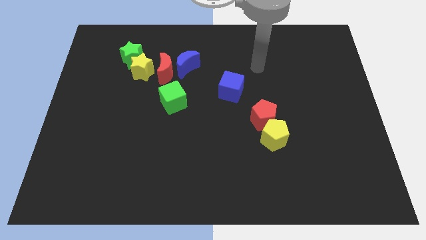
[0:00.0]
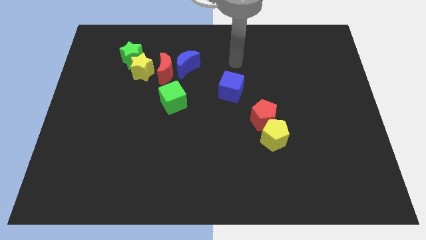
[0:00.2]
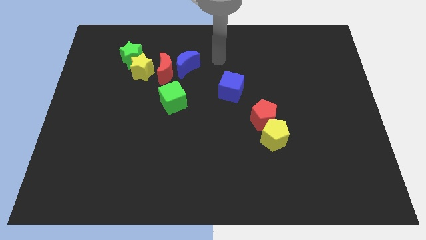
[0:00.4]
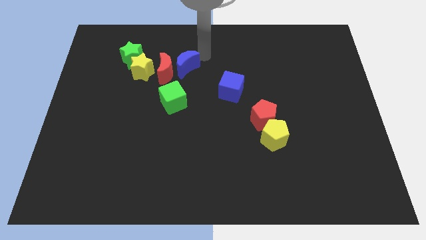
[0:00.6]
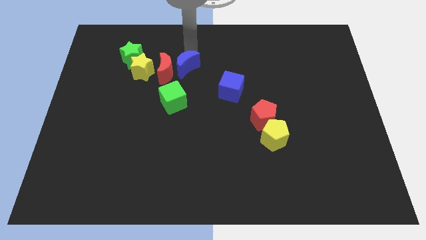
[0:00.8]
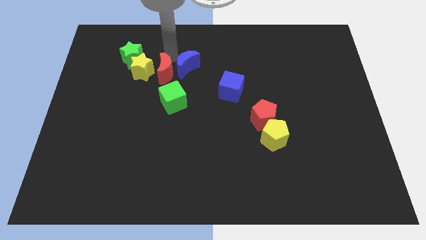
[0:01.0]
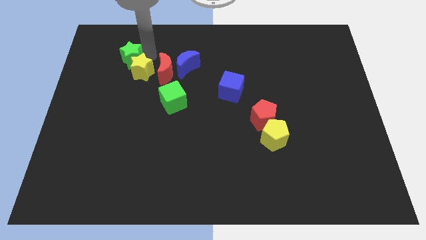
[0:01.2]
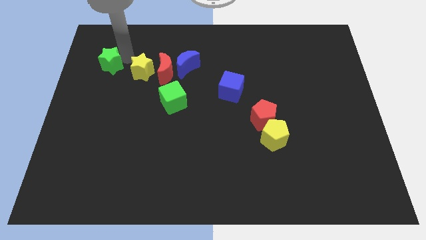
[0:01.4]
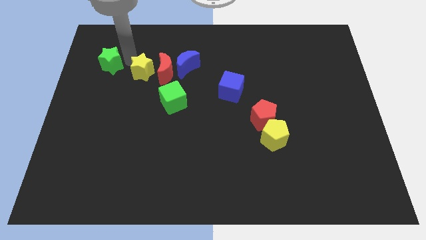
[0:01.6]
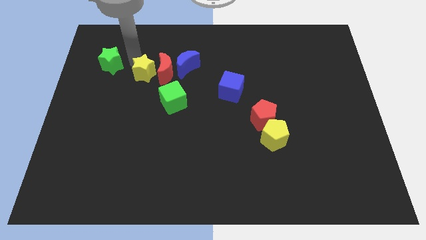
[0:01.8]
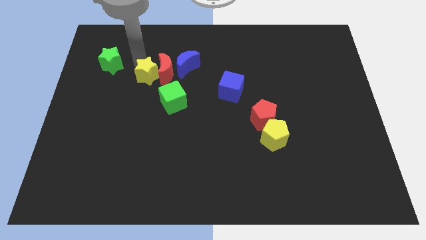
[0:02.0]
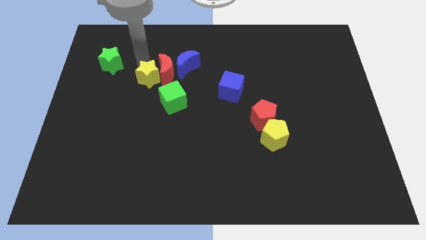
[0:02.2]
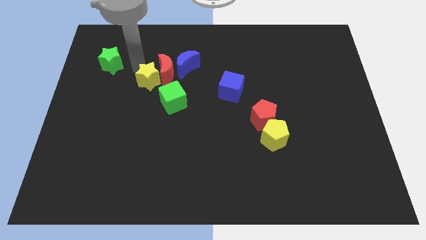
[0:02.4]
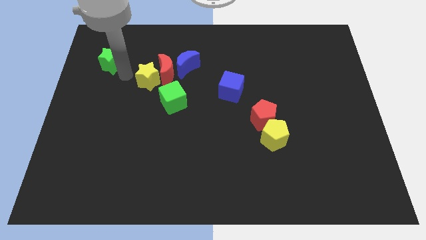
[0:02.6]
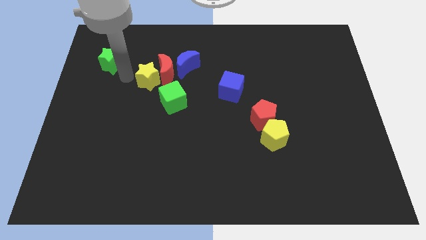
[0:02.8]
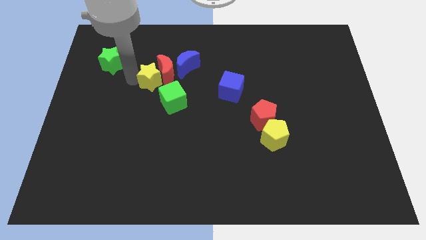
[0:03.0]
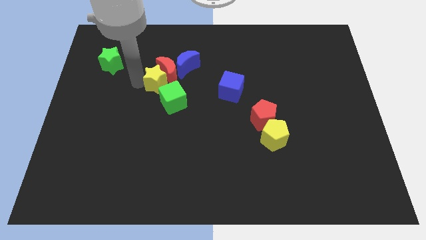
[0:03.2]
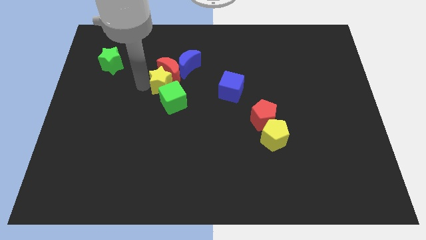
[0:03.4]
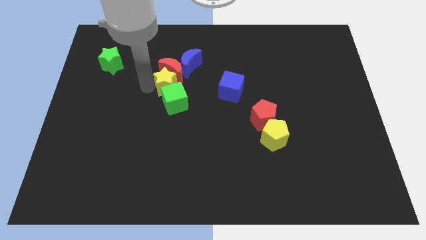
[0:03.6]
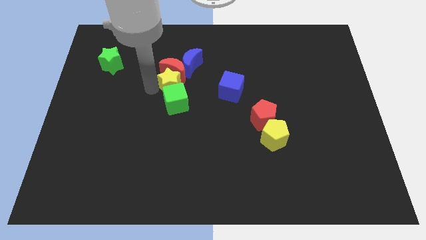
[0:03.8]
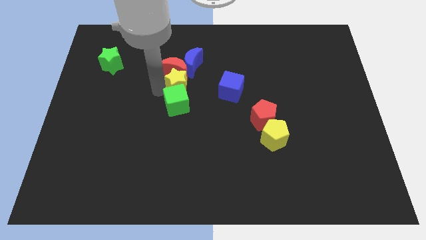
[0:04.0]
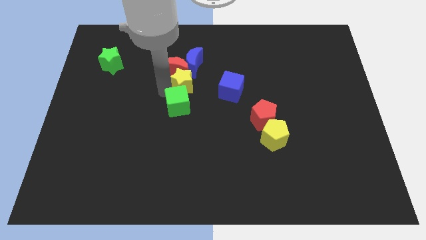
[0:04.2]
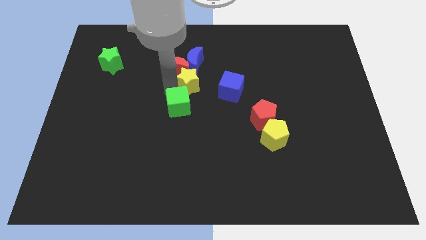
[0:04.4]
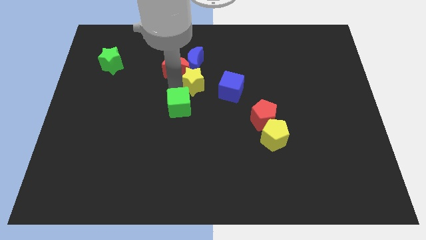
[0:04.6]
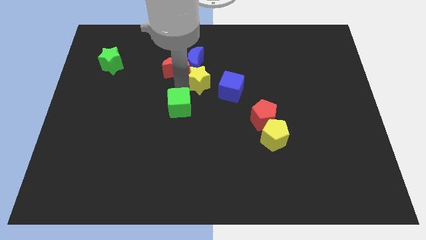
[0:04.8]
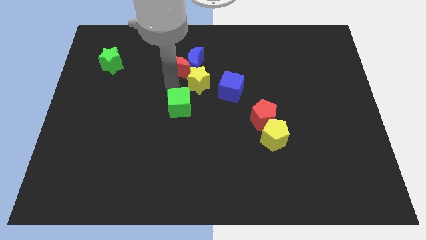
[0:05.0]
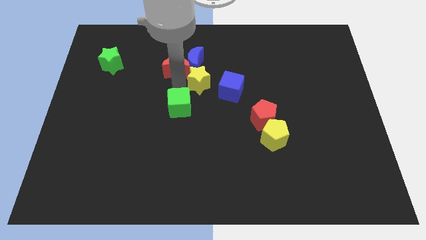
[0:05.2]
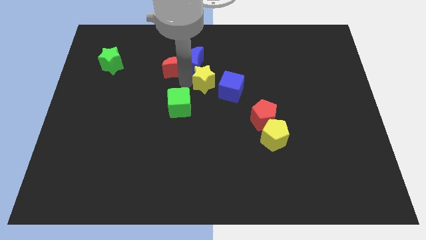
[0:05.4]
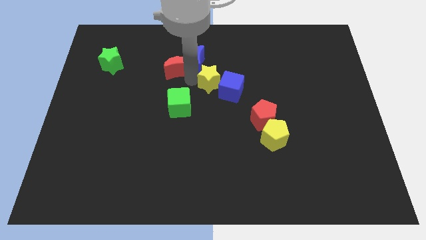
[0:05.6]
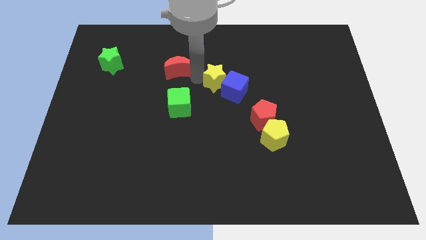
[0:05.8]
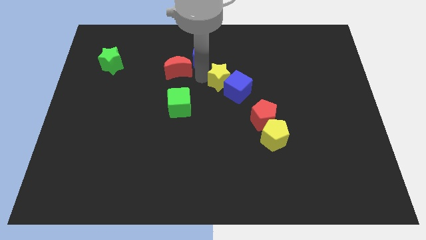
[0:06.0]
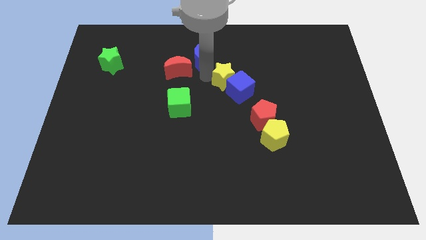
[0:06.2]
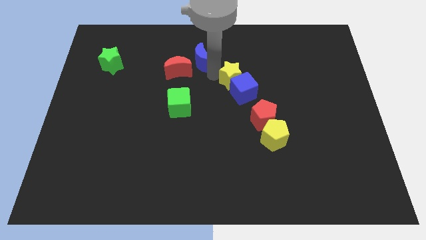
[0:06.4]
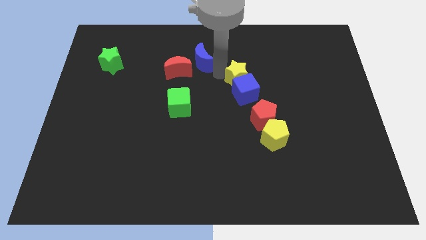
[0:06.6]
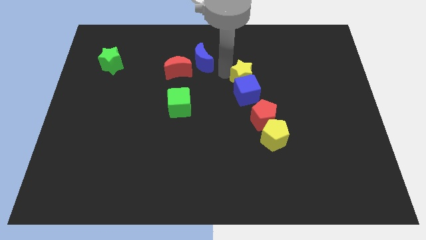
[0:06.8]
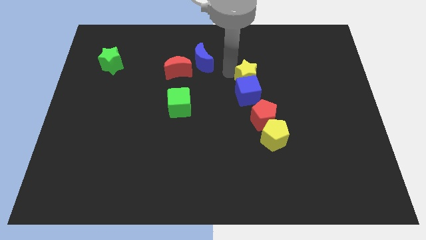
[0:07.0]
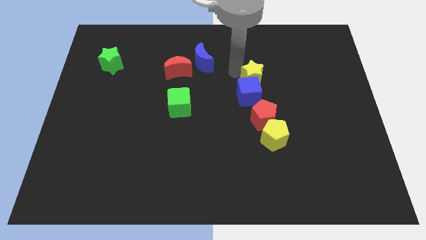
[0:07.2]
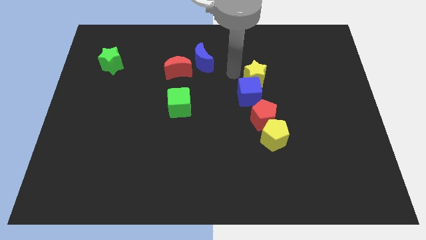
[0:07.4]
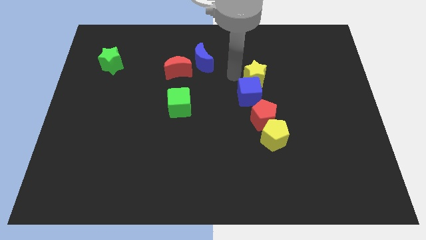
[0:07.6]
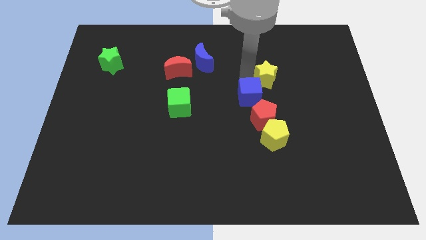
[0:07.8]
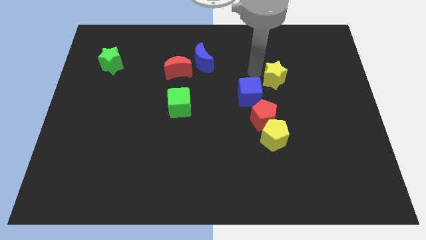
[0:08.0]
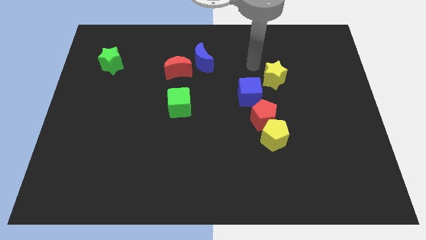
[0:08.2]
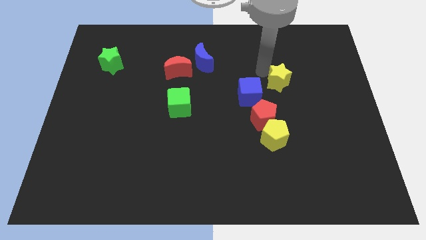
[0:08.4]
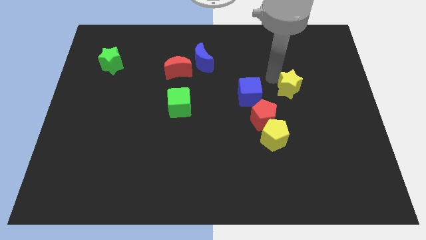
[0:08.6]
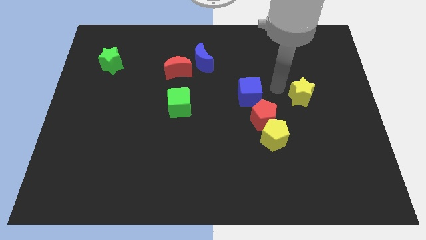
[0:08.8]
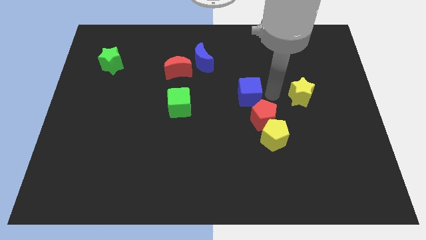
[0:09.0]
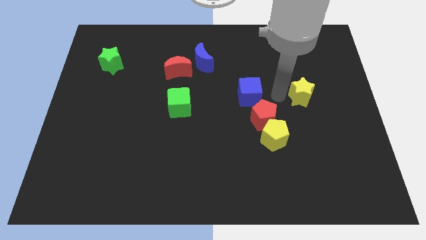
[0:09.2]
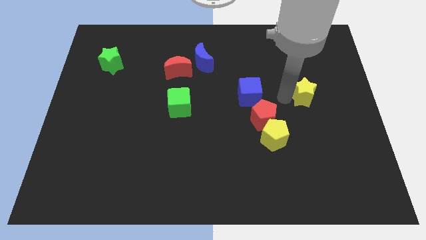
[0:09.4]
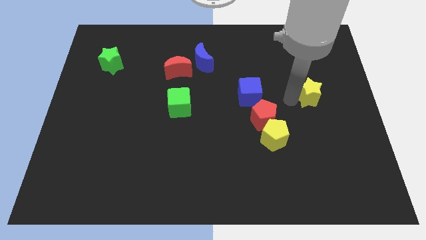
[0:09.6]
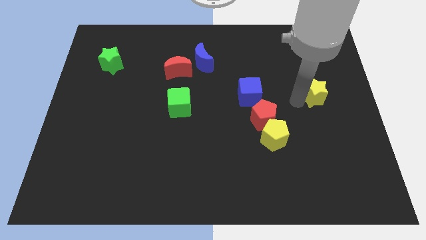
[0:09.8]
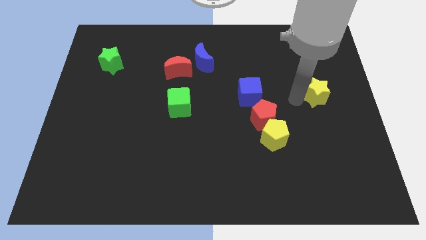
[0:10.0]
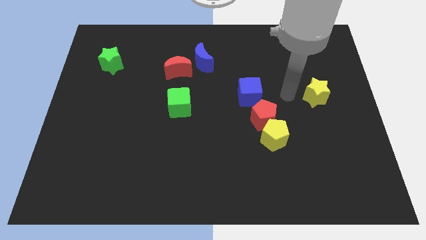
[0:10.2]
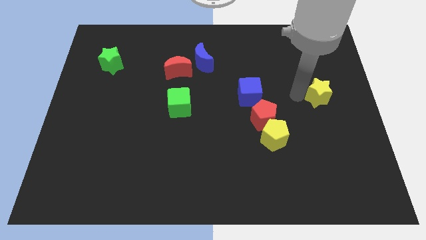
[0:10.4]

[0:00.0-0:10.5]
slide the yellow star to the right side

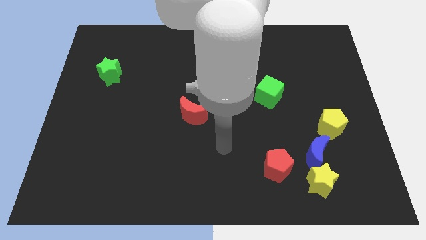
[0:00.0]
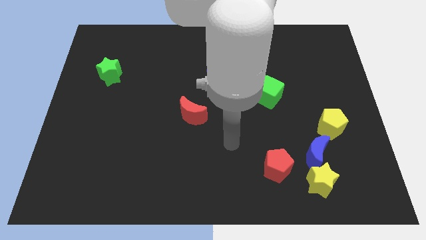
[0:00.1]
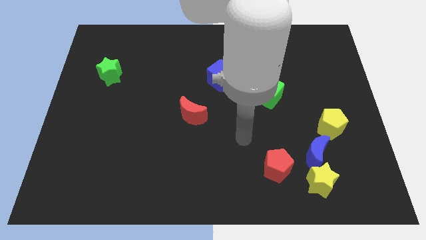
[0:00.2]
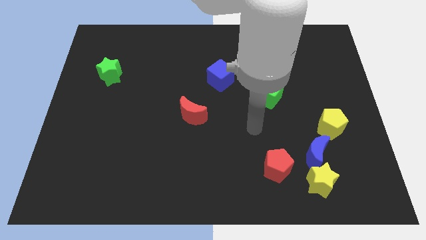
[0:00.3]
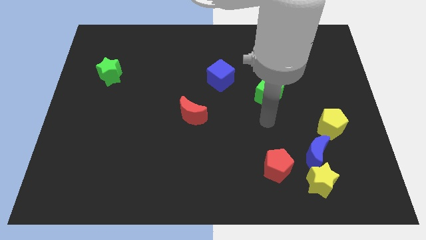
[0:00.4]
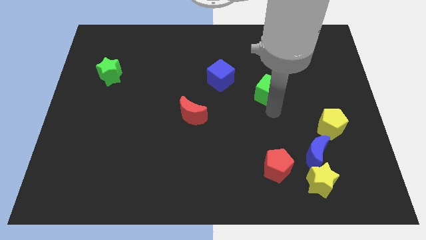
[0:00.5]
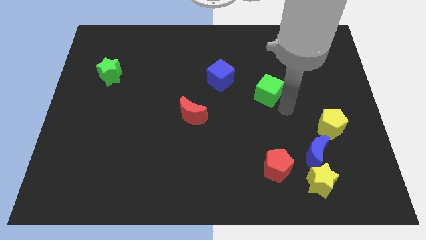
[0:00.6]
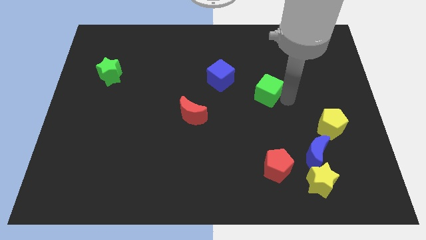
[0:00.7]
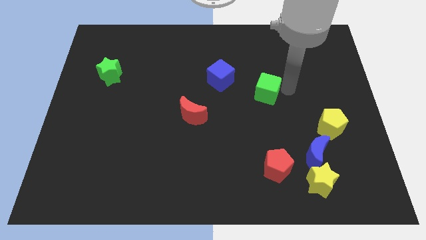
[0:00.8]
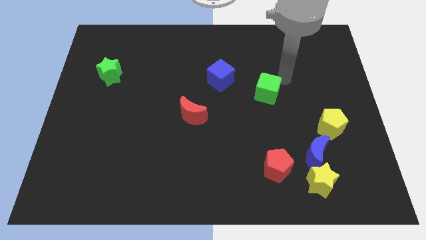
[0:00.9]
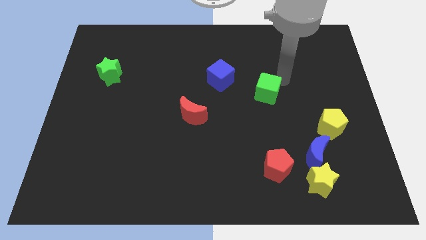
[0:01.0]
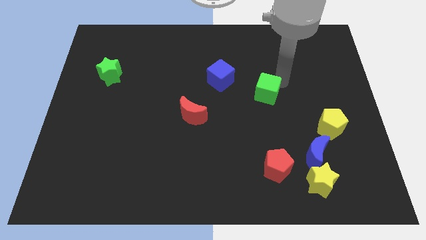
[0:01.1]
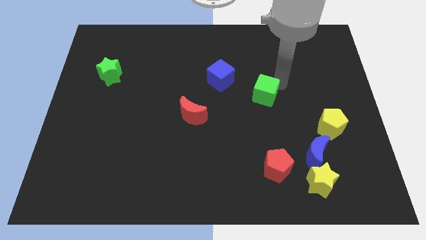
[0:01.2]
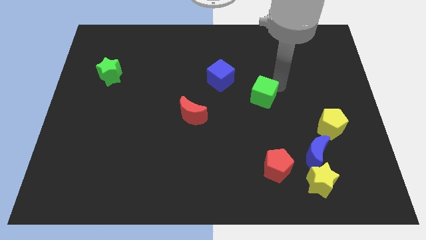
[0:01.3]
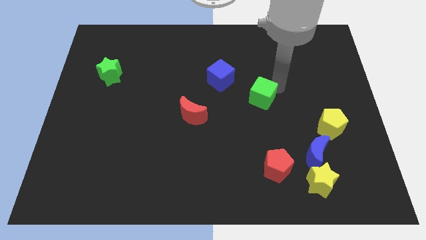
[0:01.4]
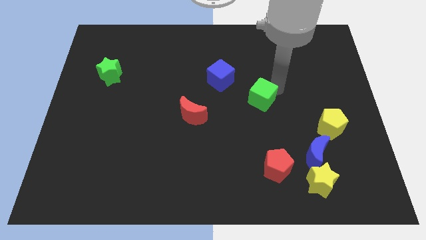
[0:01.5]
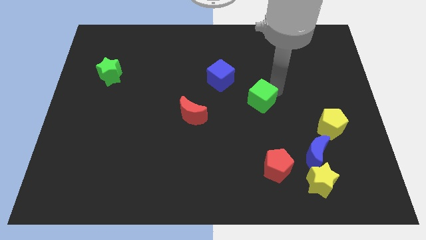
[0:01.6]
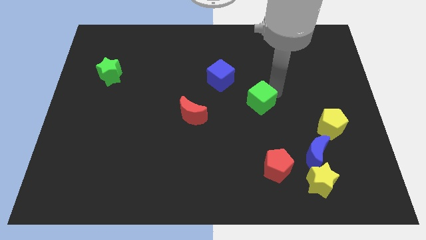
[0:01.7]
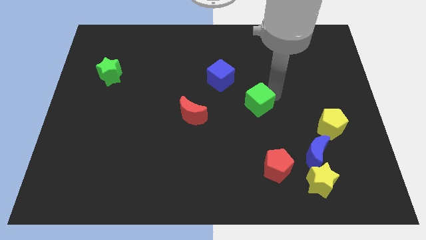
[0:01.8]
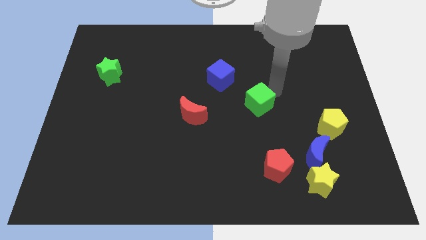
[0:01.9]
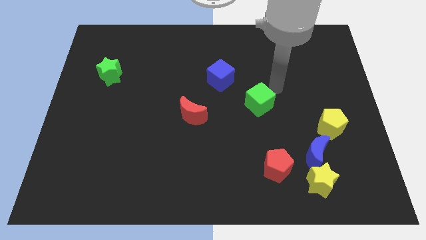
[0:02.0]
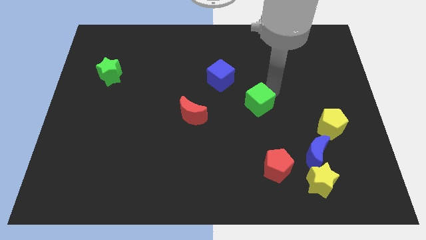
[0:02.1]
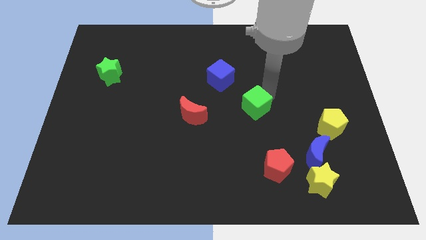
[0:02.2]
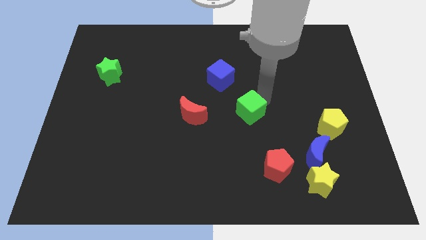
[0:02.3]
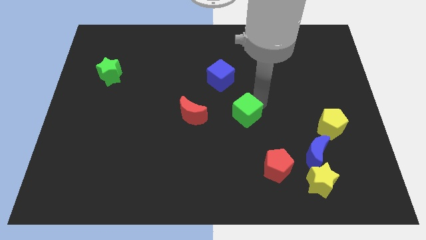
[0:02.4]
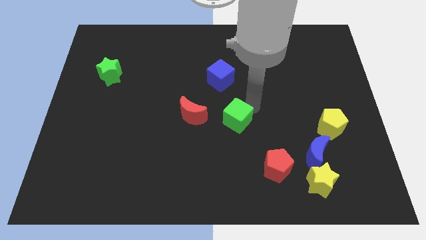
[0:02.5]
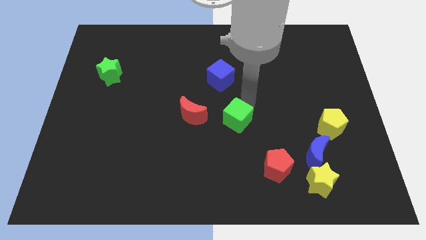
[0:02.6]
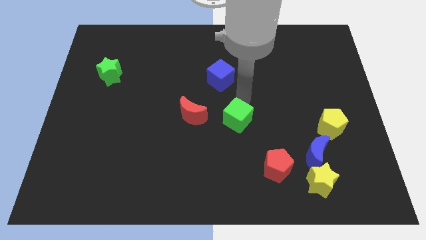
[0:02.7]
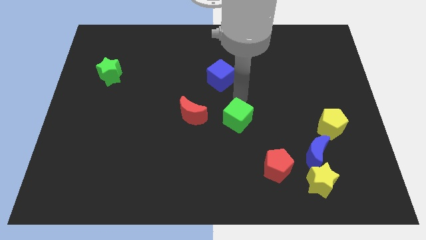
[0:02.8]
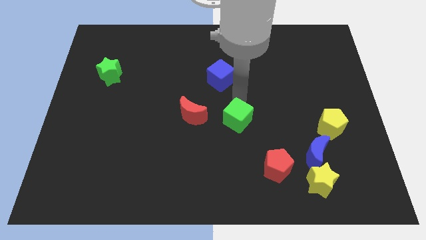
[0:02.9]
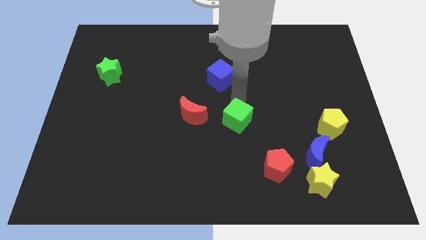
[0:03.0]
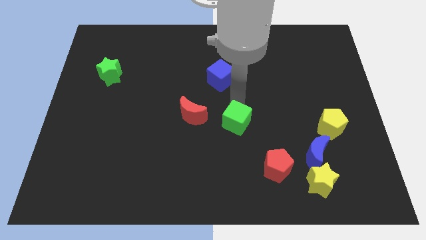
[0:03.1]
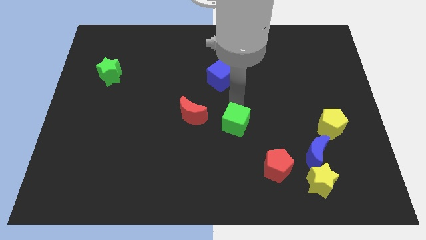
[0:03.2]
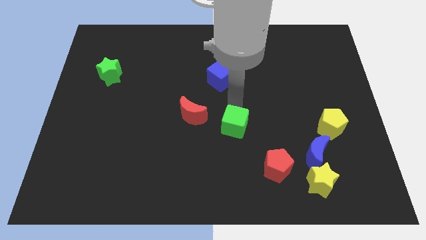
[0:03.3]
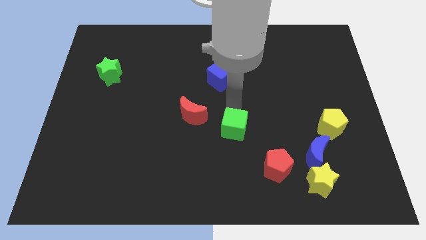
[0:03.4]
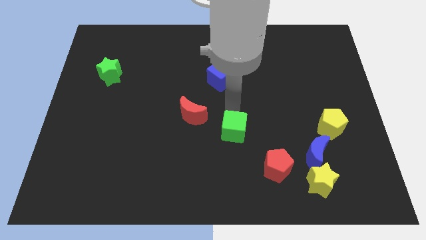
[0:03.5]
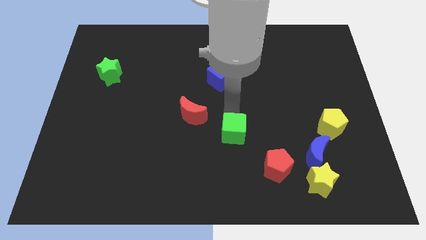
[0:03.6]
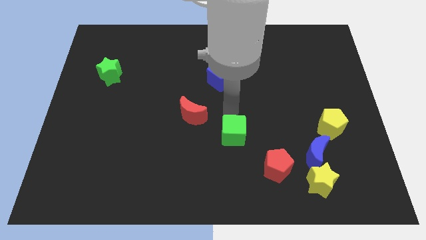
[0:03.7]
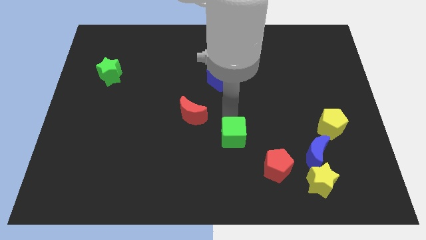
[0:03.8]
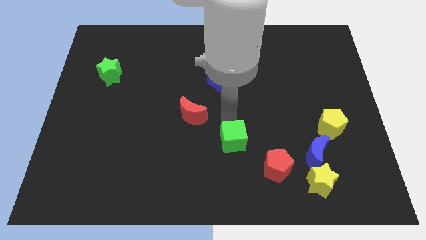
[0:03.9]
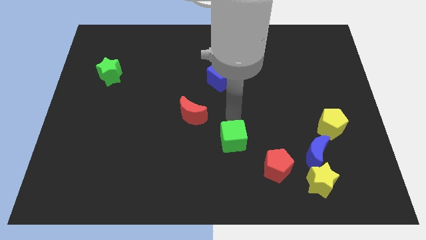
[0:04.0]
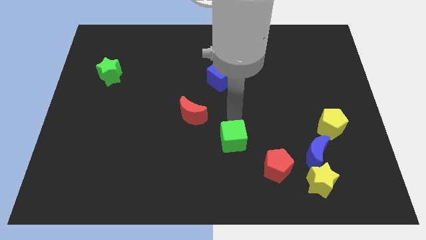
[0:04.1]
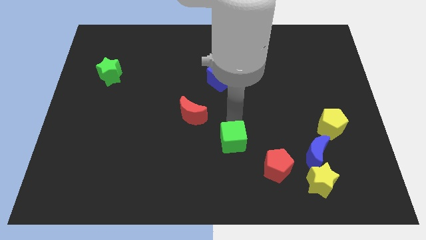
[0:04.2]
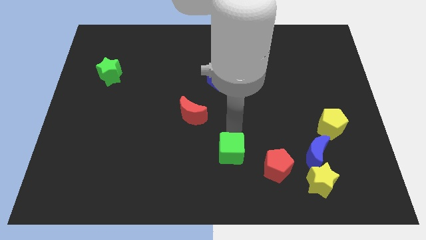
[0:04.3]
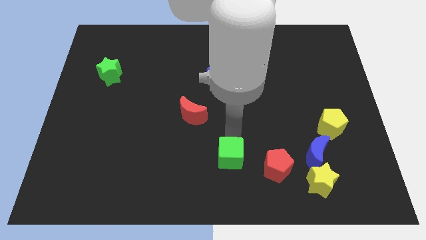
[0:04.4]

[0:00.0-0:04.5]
put the green cube to the bottom side
